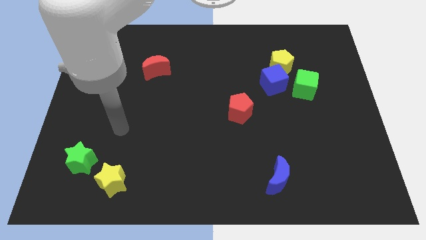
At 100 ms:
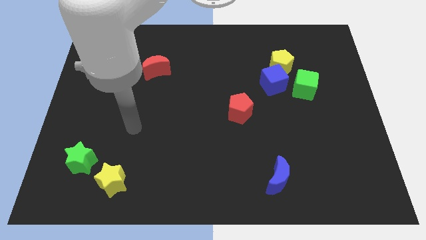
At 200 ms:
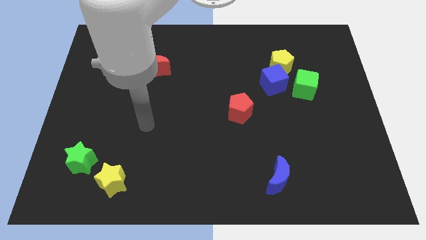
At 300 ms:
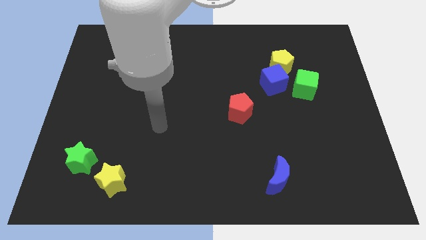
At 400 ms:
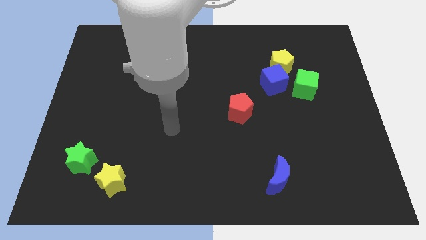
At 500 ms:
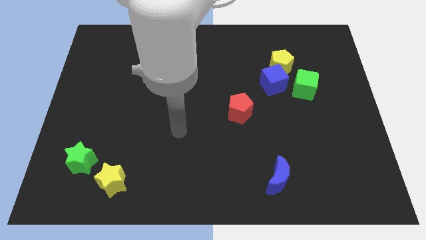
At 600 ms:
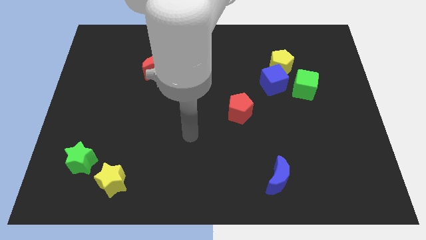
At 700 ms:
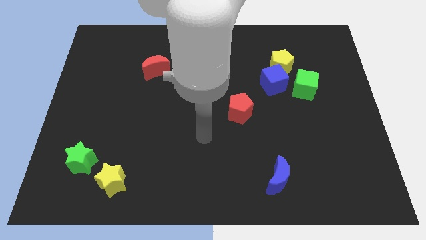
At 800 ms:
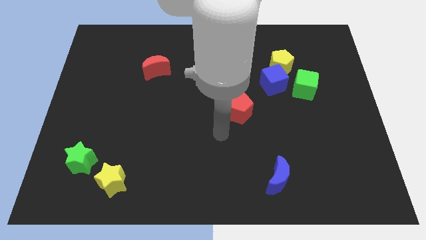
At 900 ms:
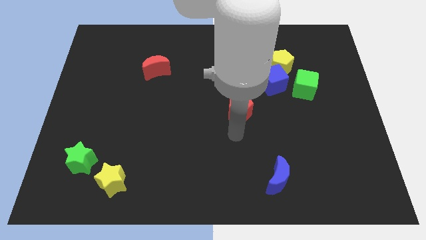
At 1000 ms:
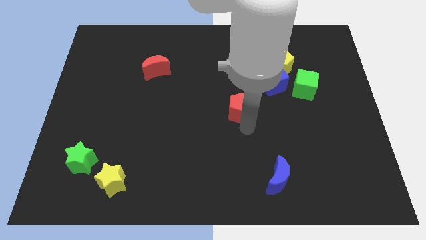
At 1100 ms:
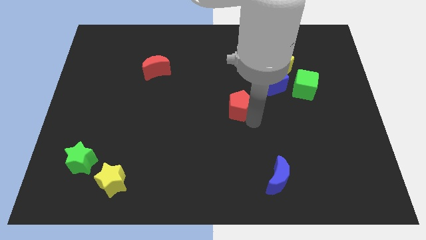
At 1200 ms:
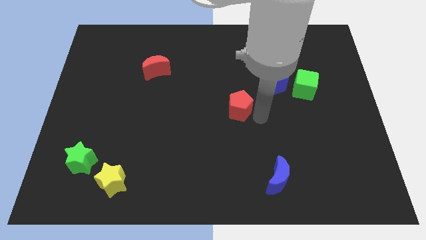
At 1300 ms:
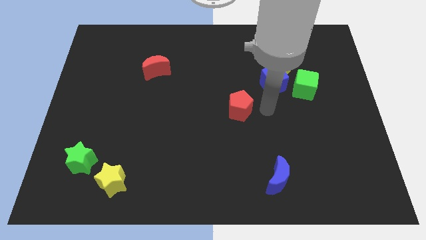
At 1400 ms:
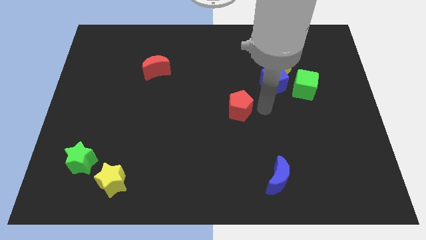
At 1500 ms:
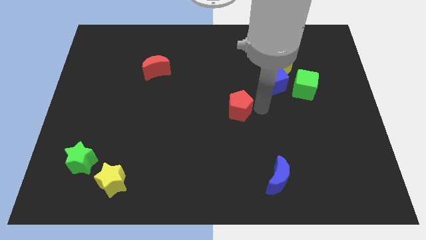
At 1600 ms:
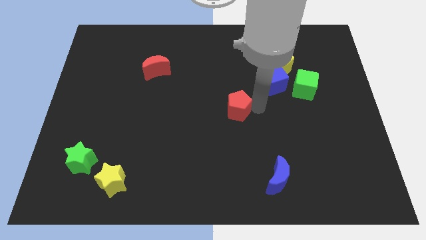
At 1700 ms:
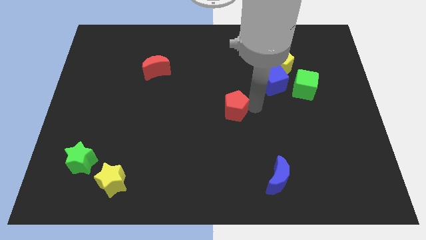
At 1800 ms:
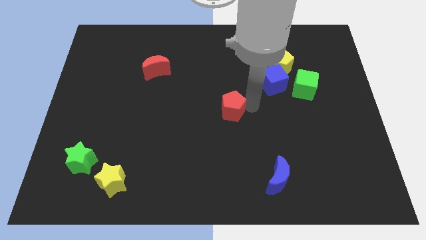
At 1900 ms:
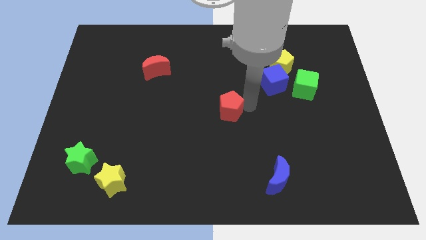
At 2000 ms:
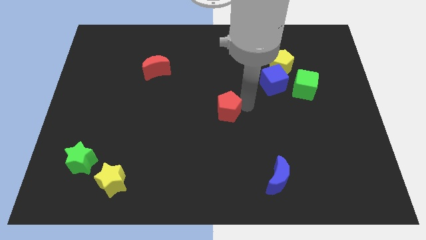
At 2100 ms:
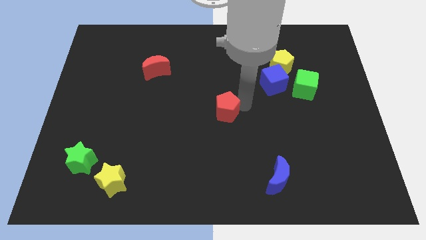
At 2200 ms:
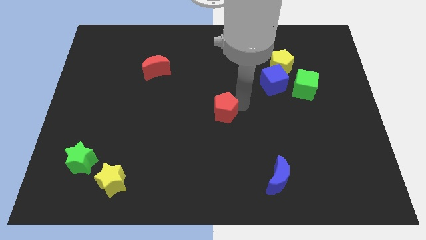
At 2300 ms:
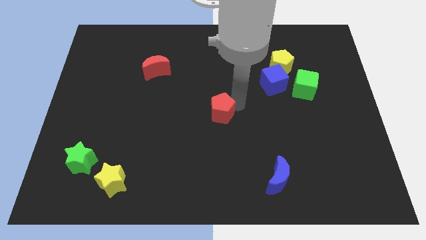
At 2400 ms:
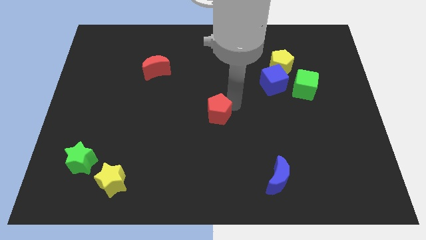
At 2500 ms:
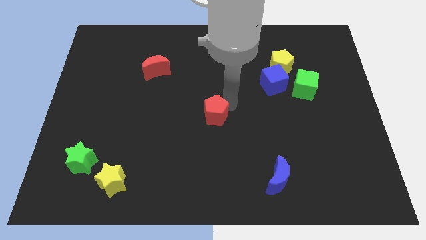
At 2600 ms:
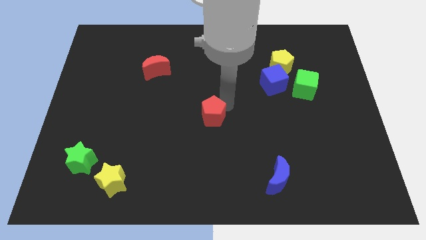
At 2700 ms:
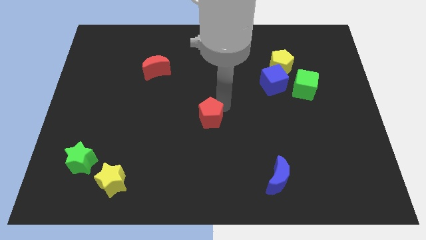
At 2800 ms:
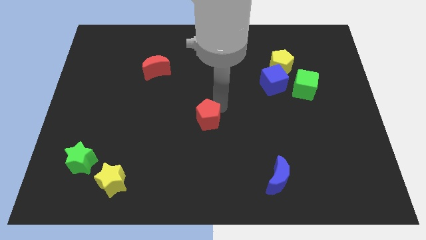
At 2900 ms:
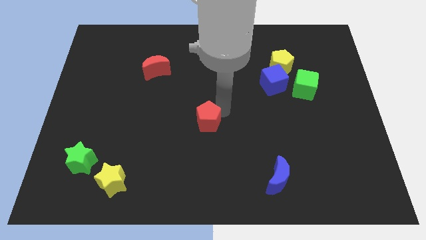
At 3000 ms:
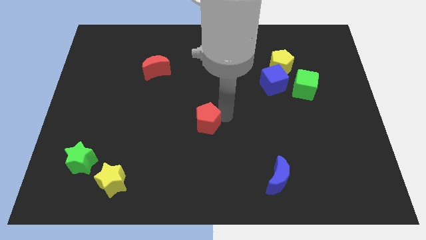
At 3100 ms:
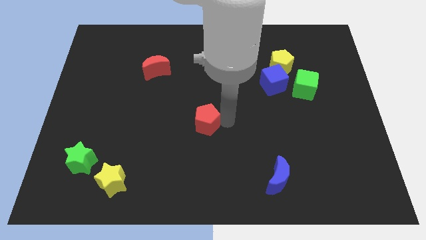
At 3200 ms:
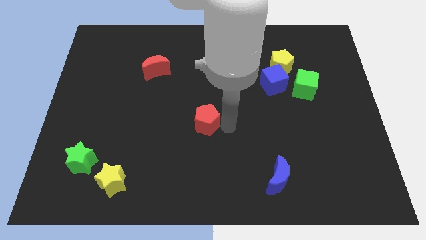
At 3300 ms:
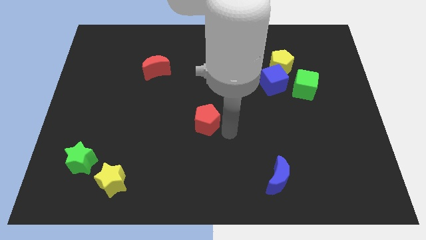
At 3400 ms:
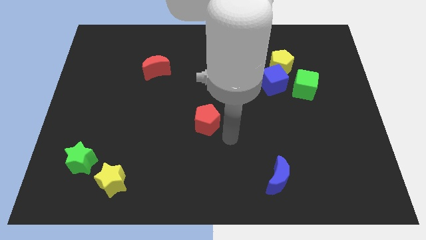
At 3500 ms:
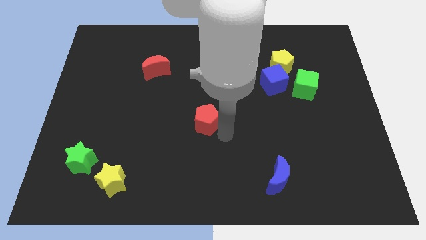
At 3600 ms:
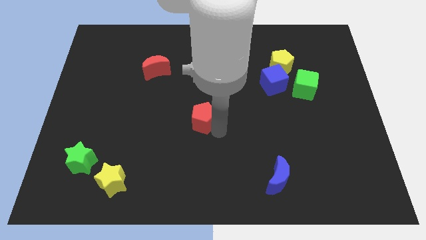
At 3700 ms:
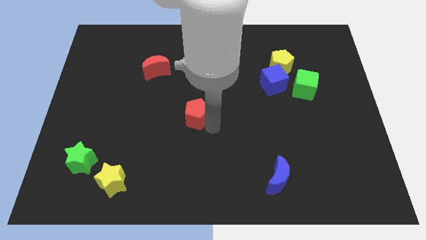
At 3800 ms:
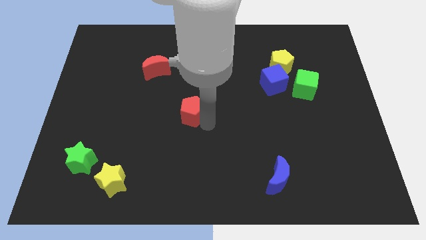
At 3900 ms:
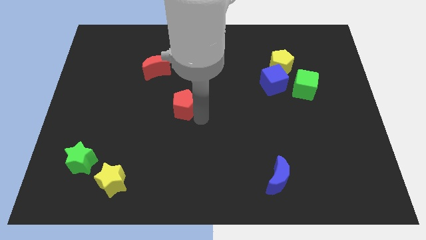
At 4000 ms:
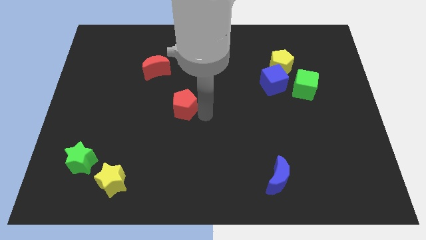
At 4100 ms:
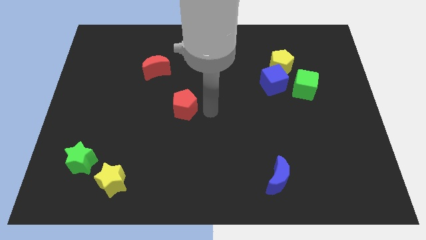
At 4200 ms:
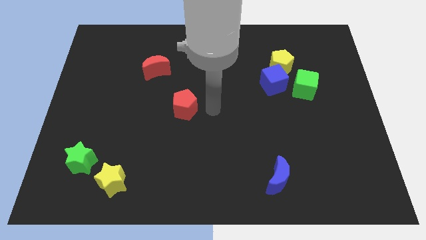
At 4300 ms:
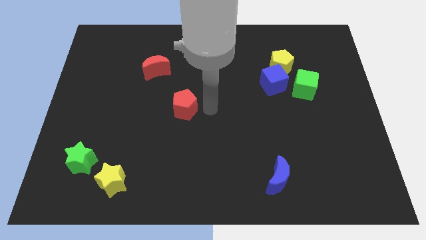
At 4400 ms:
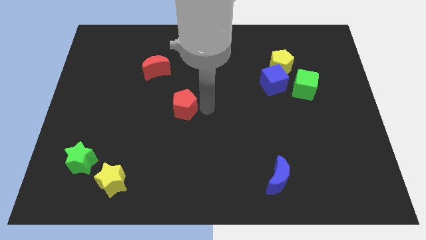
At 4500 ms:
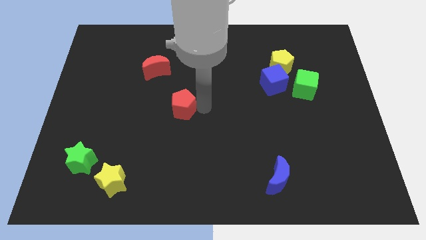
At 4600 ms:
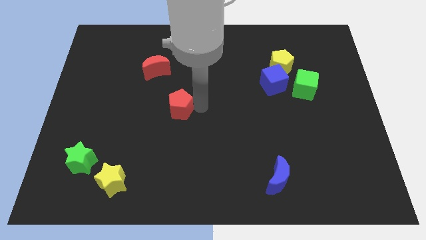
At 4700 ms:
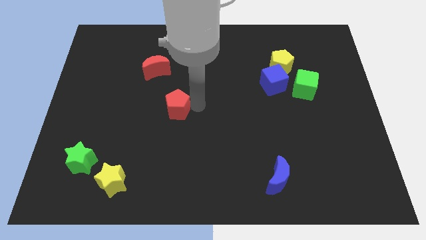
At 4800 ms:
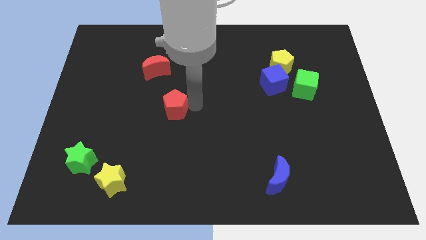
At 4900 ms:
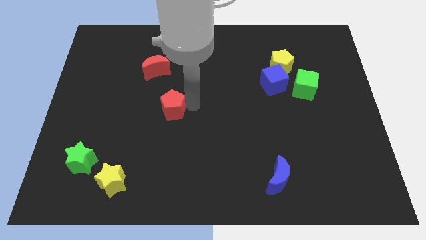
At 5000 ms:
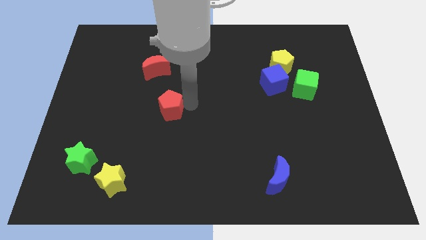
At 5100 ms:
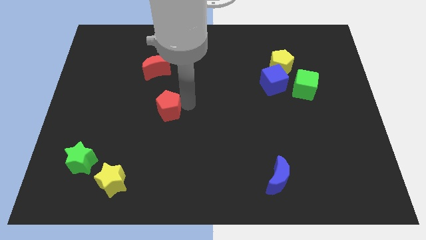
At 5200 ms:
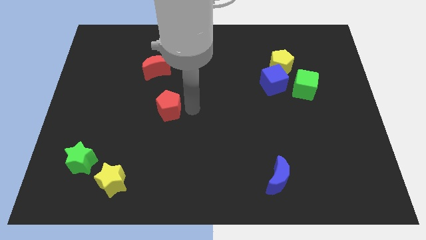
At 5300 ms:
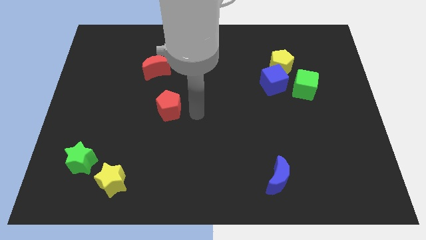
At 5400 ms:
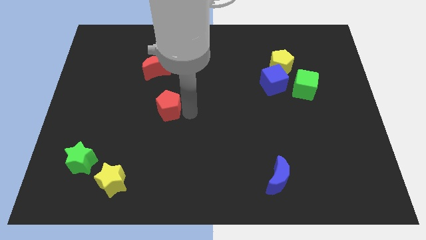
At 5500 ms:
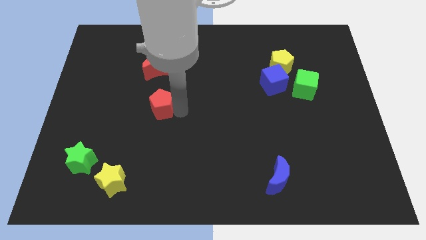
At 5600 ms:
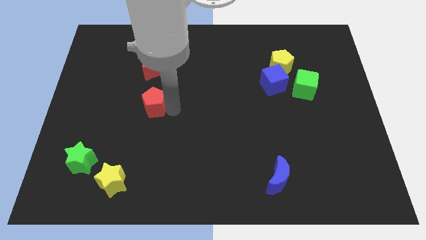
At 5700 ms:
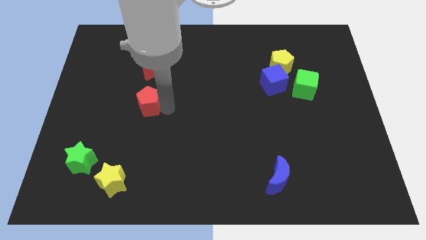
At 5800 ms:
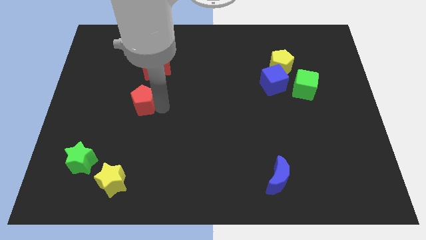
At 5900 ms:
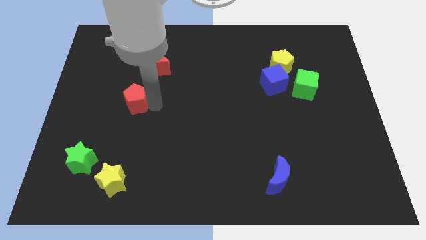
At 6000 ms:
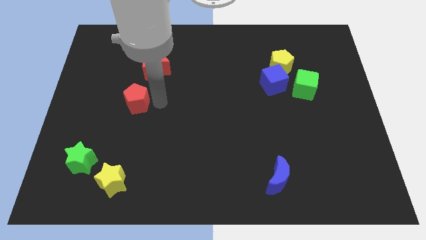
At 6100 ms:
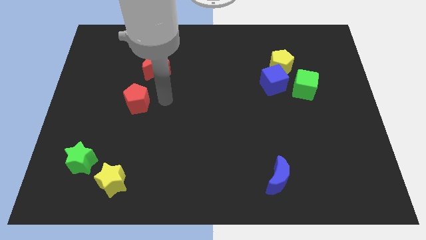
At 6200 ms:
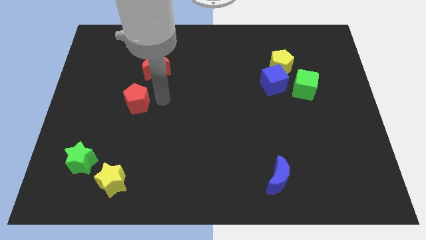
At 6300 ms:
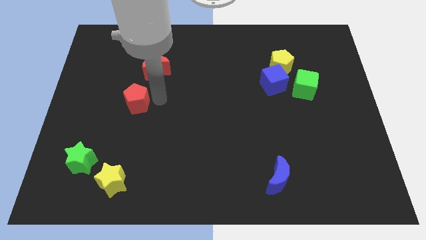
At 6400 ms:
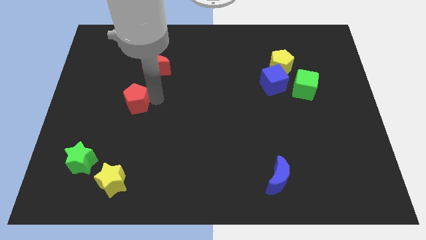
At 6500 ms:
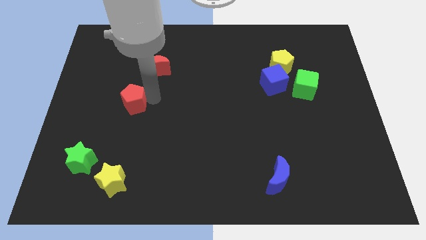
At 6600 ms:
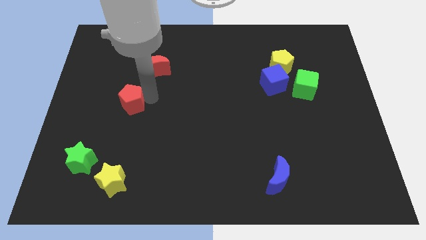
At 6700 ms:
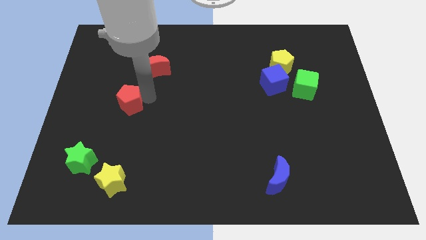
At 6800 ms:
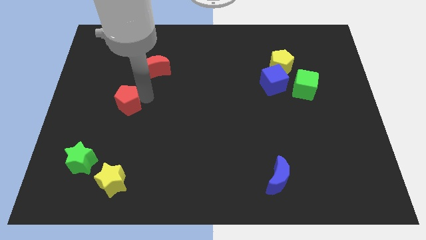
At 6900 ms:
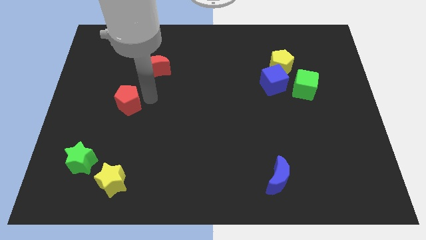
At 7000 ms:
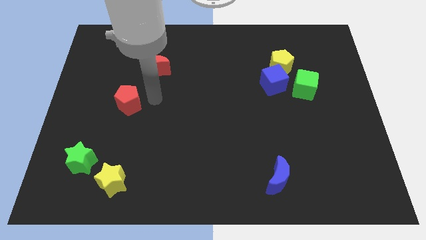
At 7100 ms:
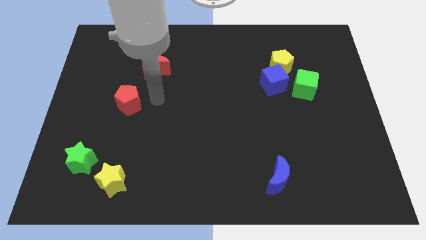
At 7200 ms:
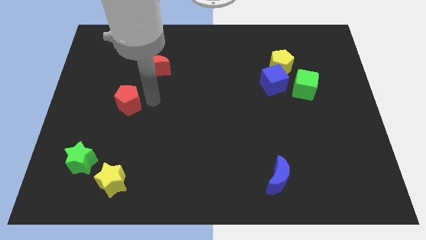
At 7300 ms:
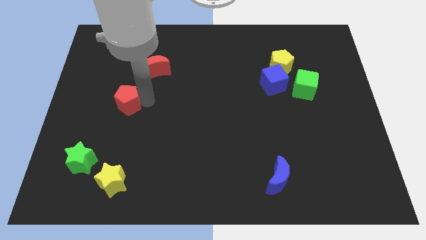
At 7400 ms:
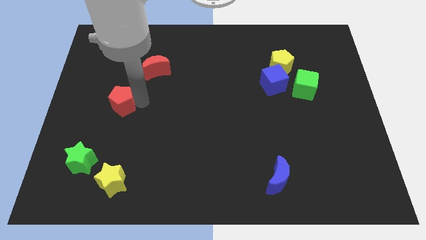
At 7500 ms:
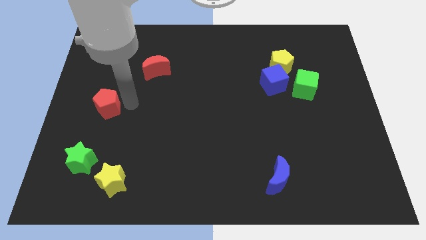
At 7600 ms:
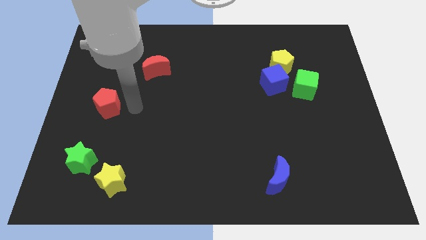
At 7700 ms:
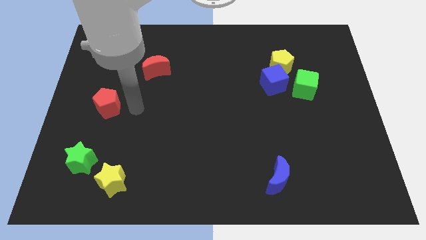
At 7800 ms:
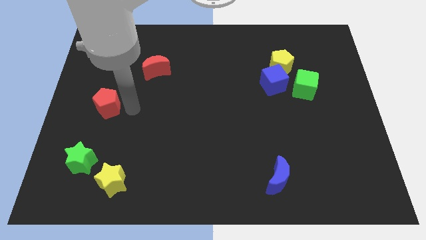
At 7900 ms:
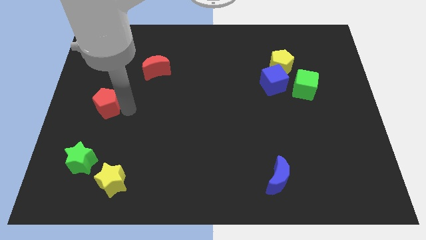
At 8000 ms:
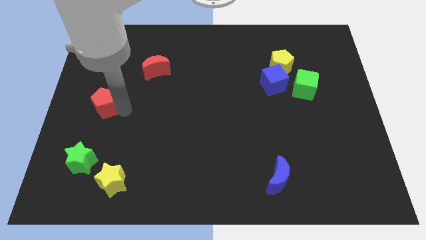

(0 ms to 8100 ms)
move the red pentagon to the center left
